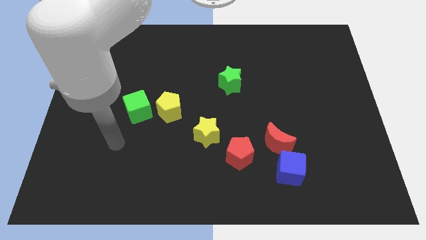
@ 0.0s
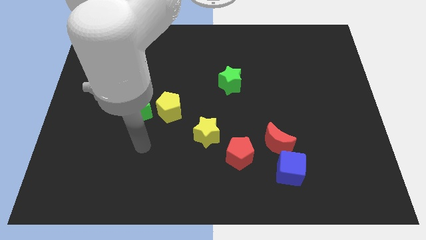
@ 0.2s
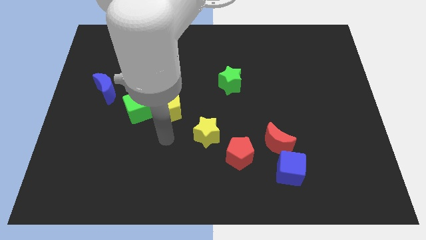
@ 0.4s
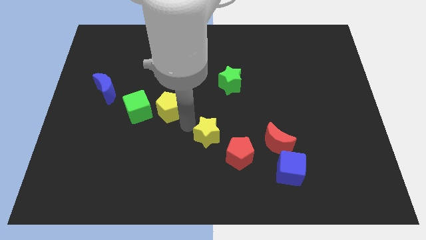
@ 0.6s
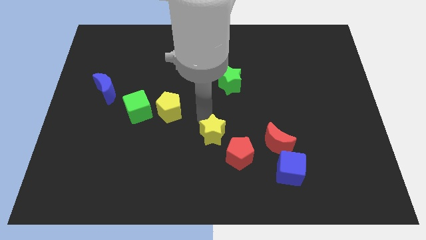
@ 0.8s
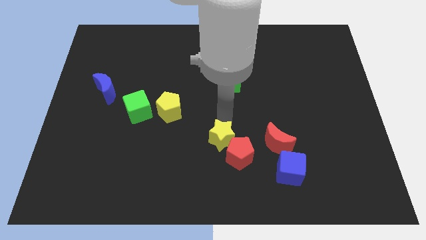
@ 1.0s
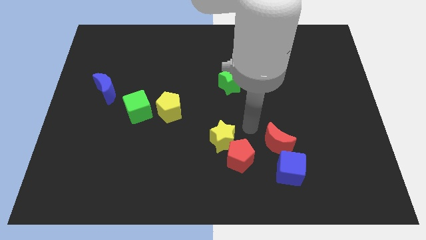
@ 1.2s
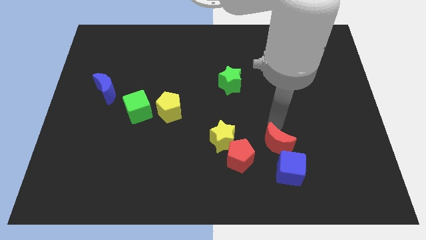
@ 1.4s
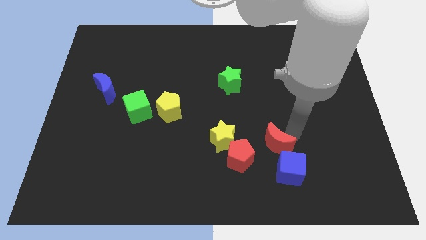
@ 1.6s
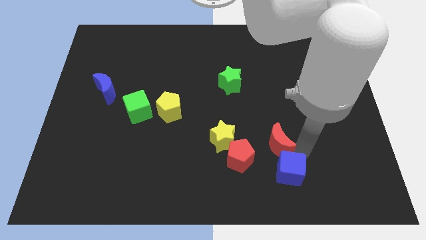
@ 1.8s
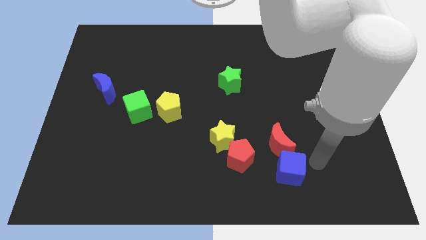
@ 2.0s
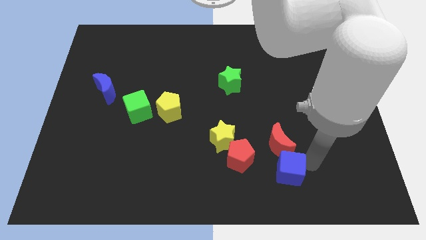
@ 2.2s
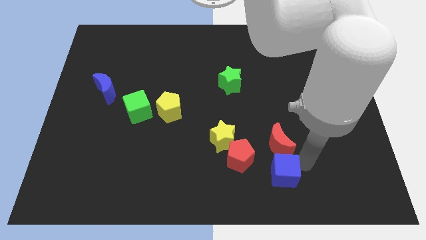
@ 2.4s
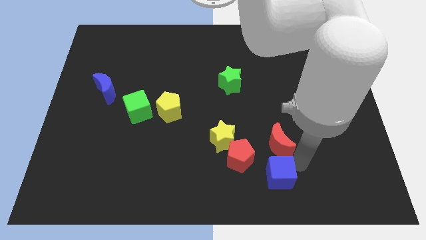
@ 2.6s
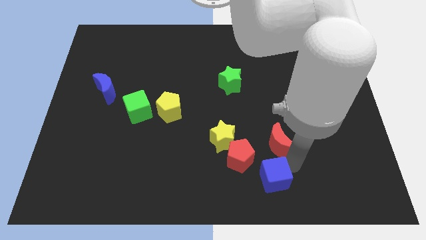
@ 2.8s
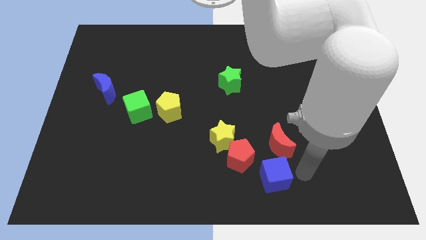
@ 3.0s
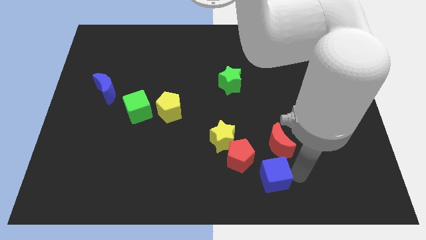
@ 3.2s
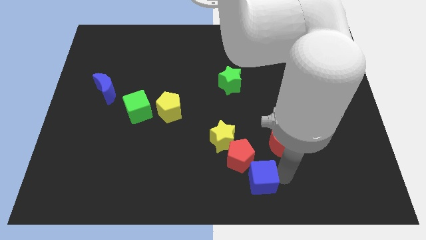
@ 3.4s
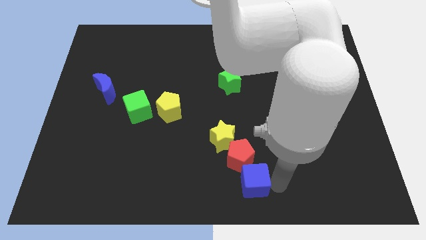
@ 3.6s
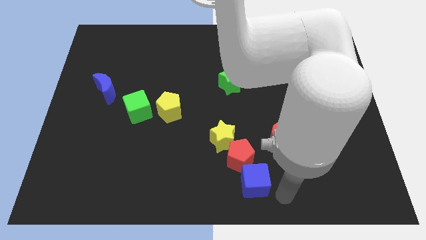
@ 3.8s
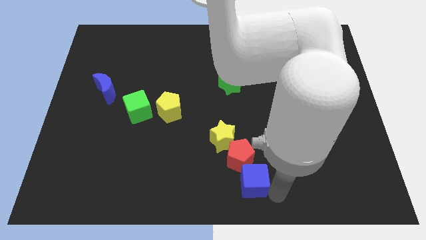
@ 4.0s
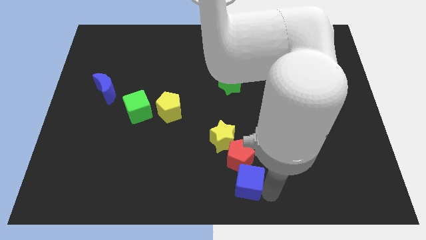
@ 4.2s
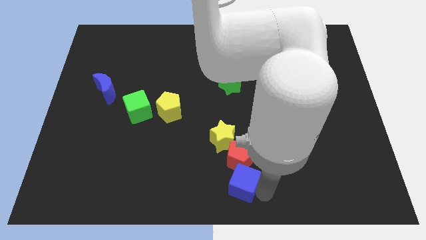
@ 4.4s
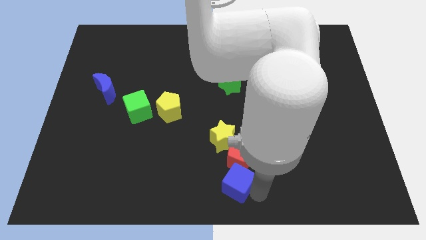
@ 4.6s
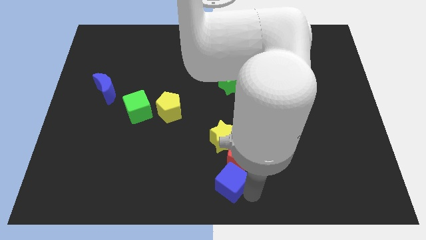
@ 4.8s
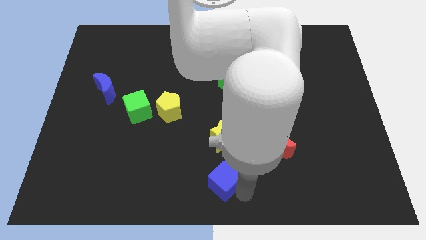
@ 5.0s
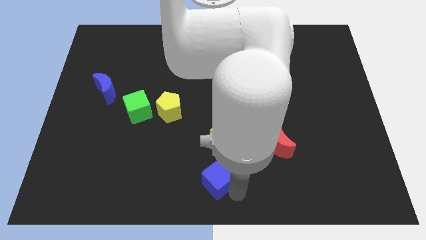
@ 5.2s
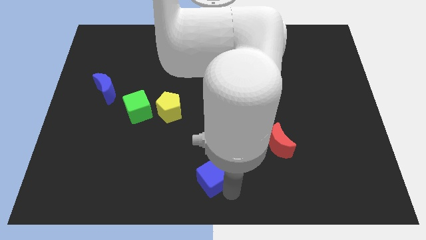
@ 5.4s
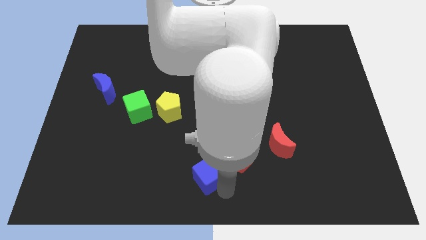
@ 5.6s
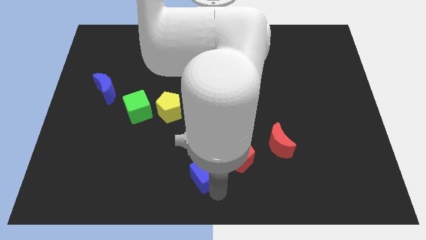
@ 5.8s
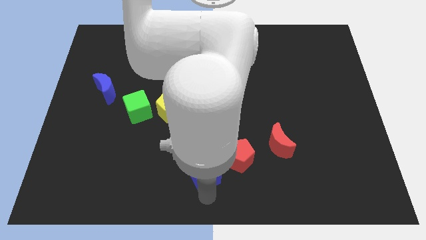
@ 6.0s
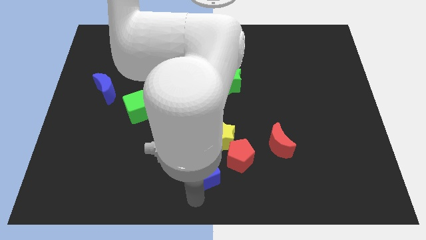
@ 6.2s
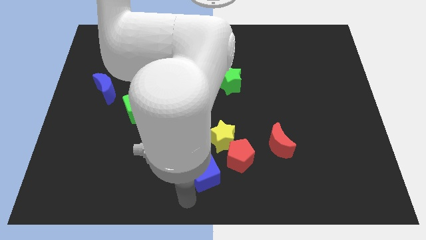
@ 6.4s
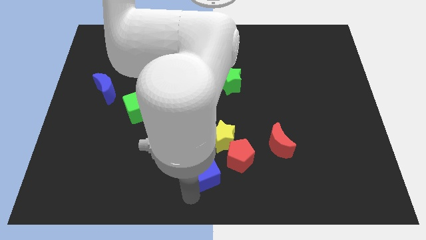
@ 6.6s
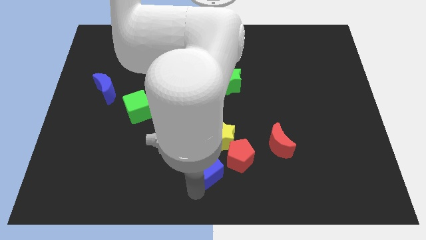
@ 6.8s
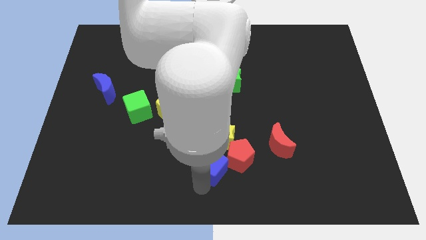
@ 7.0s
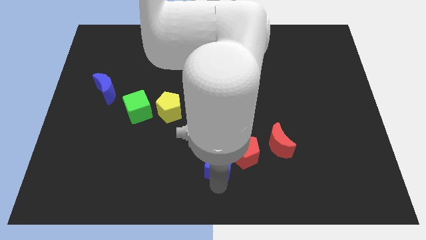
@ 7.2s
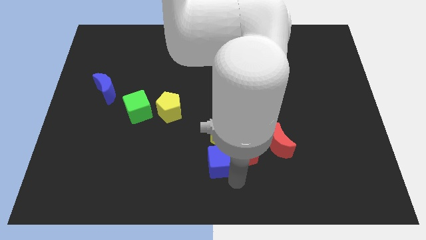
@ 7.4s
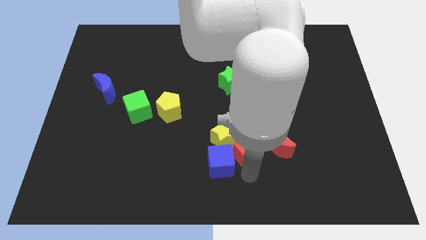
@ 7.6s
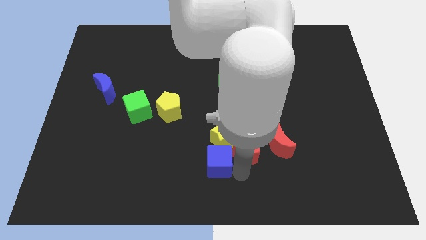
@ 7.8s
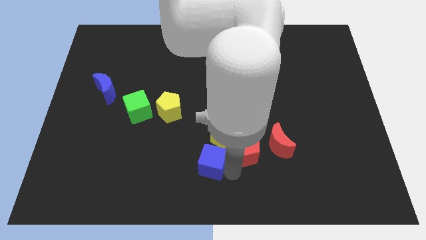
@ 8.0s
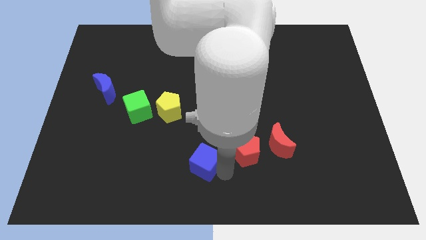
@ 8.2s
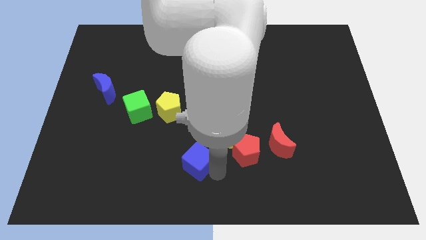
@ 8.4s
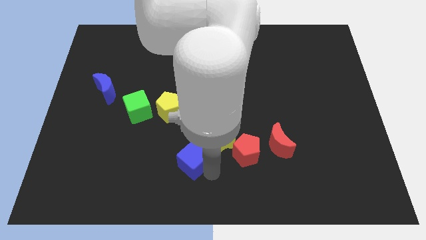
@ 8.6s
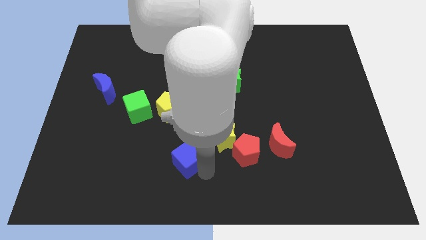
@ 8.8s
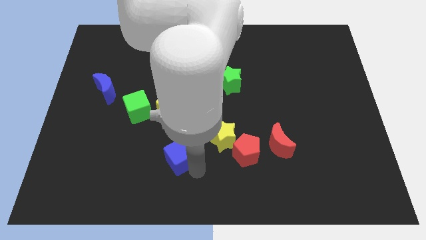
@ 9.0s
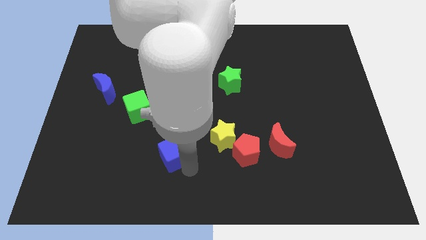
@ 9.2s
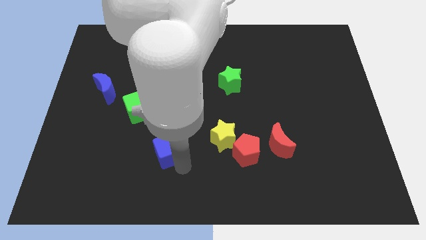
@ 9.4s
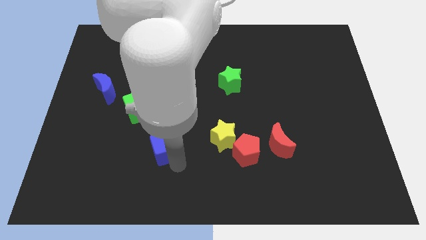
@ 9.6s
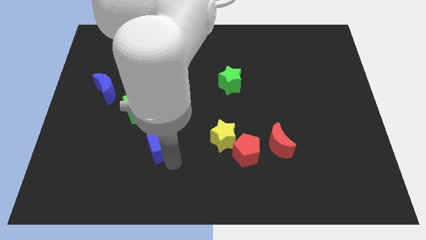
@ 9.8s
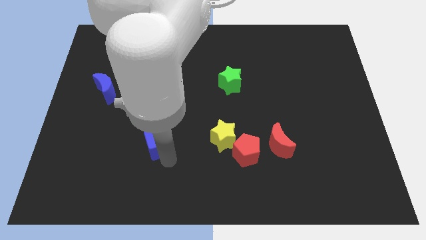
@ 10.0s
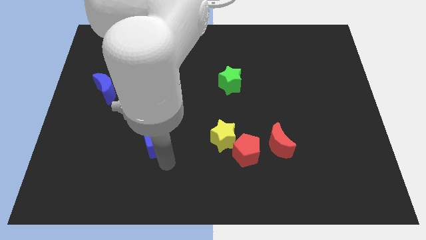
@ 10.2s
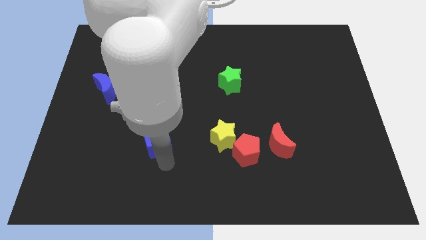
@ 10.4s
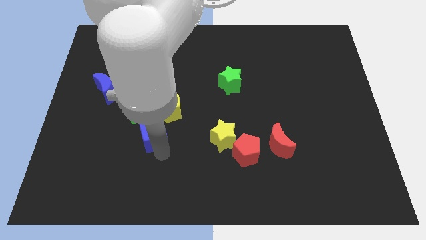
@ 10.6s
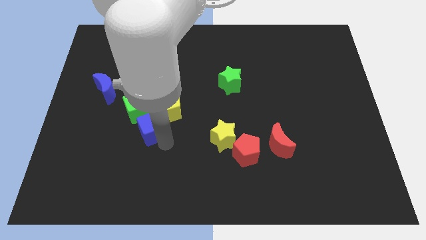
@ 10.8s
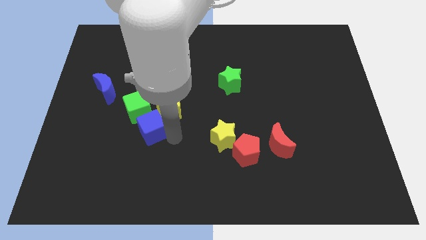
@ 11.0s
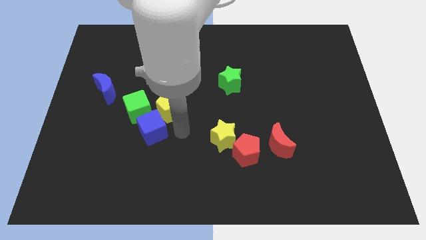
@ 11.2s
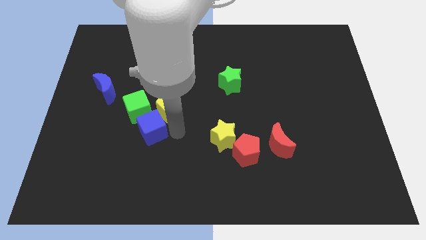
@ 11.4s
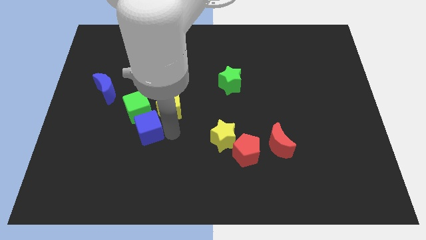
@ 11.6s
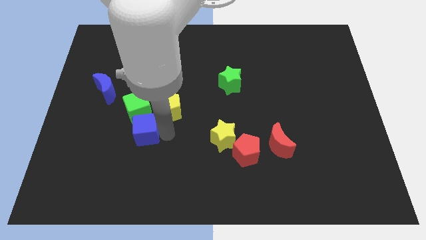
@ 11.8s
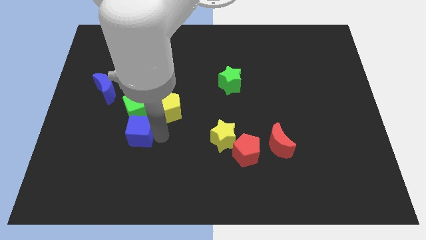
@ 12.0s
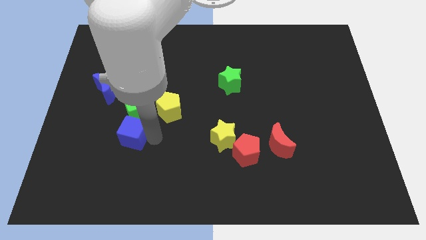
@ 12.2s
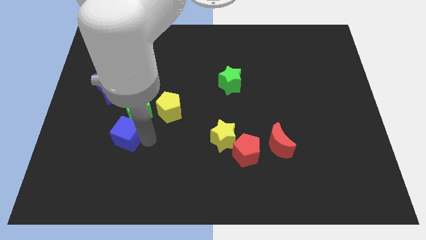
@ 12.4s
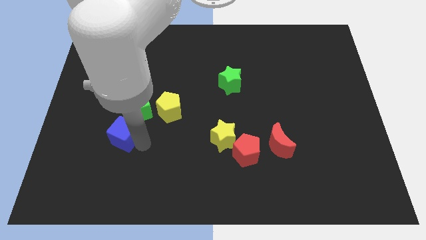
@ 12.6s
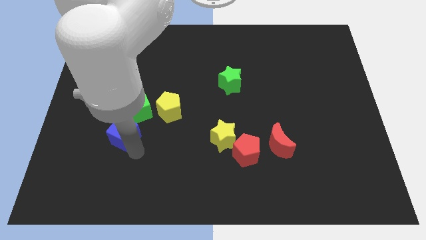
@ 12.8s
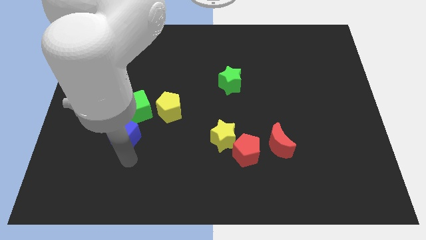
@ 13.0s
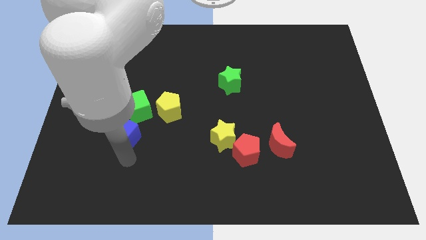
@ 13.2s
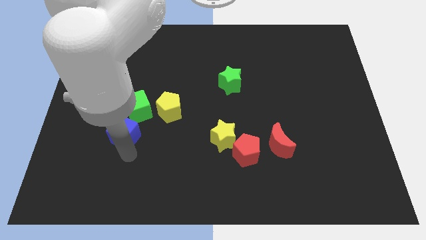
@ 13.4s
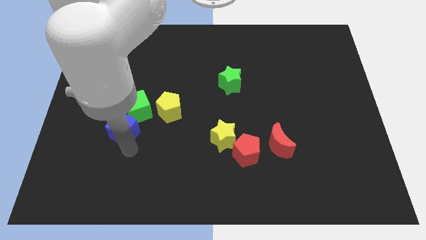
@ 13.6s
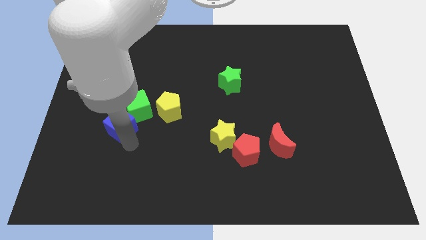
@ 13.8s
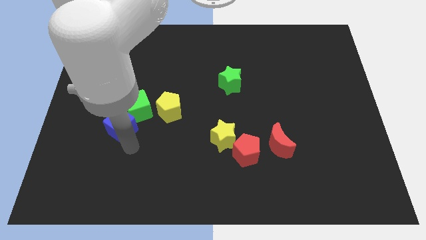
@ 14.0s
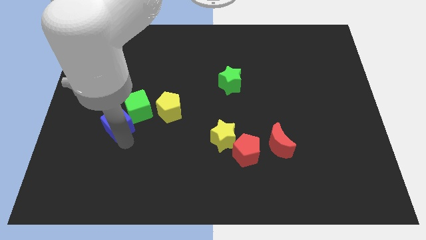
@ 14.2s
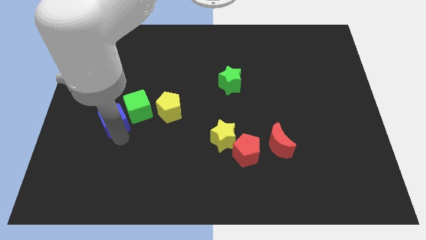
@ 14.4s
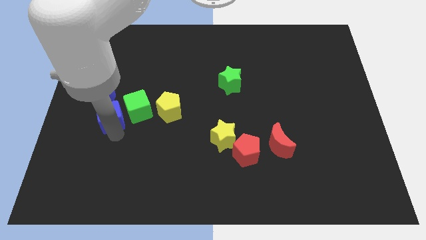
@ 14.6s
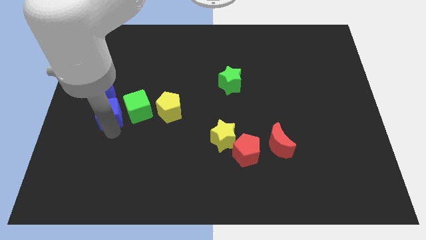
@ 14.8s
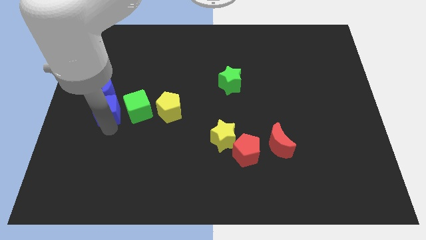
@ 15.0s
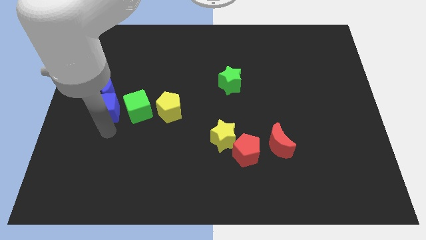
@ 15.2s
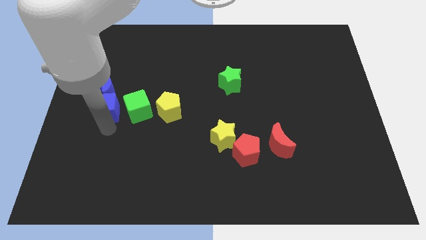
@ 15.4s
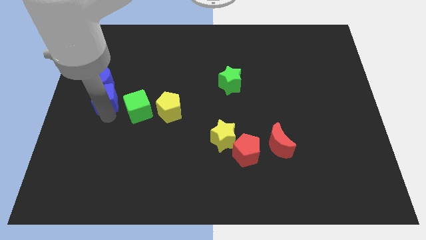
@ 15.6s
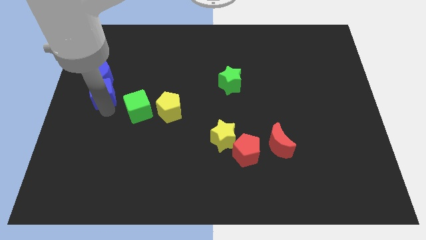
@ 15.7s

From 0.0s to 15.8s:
slide the blue cube next to the blue moon
